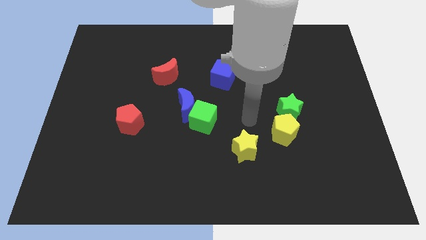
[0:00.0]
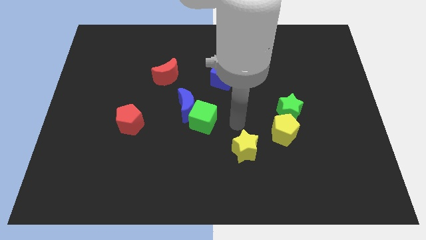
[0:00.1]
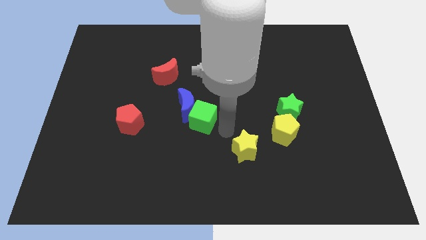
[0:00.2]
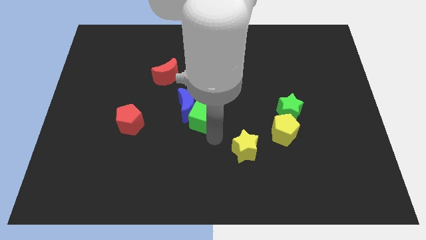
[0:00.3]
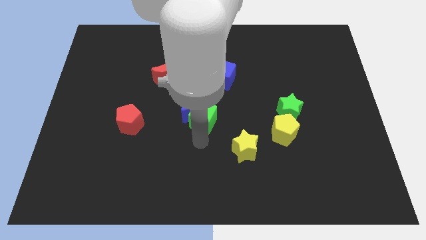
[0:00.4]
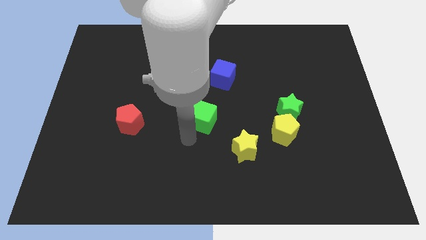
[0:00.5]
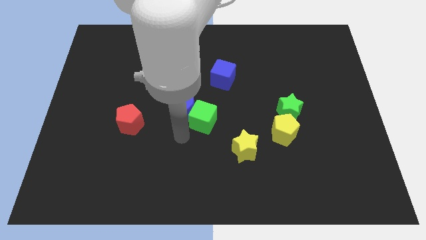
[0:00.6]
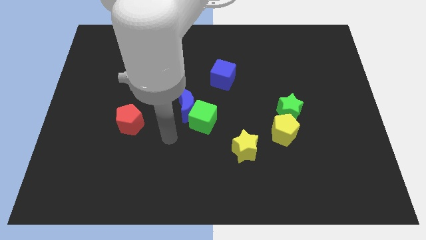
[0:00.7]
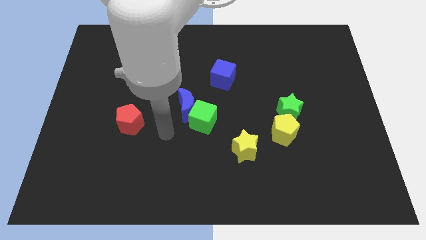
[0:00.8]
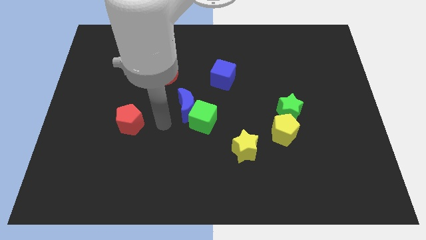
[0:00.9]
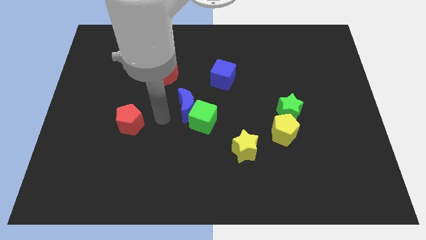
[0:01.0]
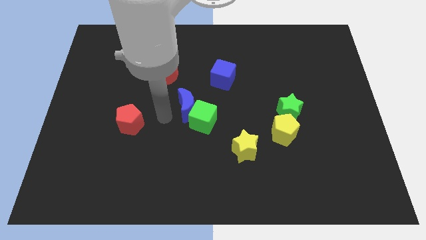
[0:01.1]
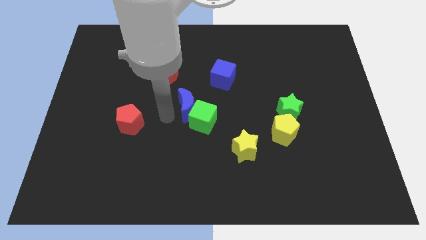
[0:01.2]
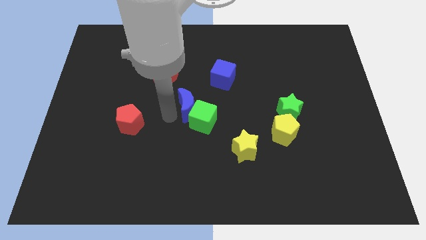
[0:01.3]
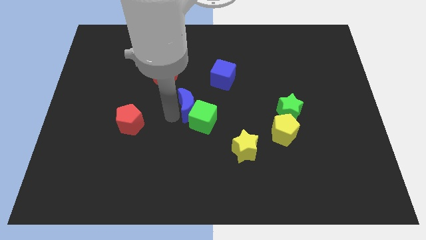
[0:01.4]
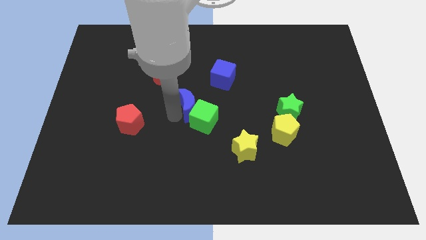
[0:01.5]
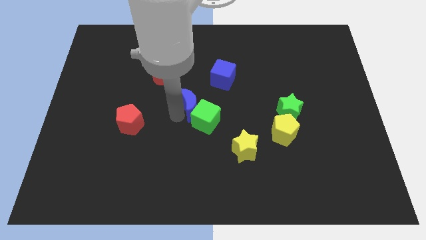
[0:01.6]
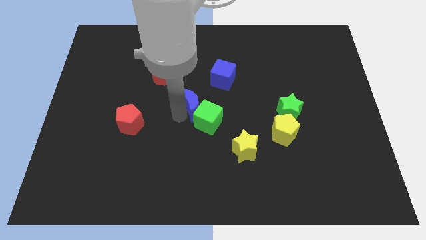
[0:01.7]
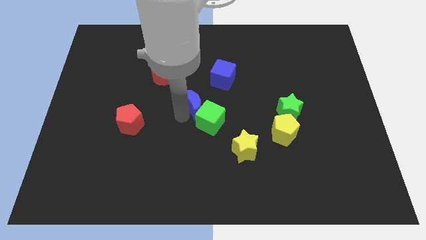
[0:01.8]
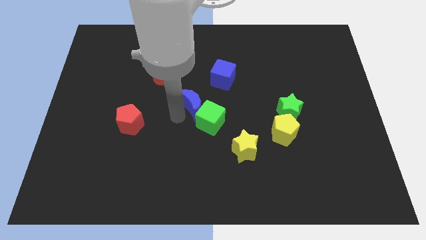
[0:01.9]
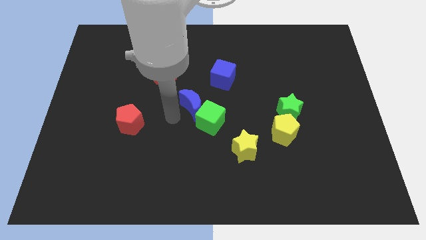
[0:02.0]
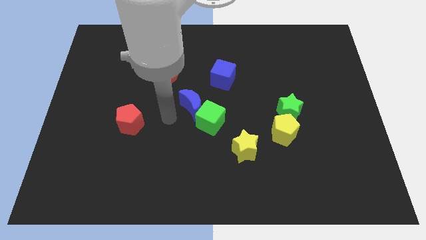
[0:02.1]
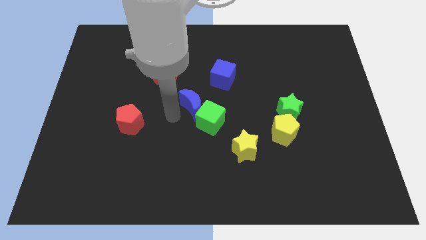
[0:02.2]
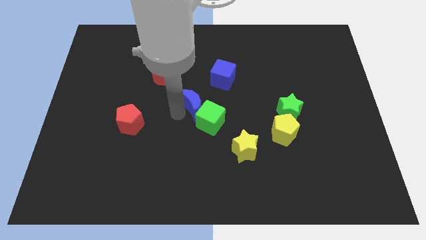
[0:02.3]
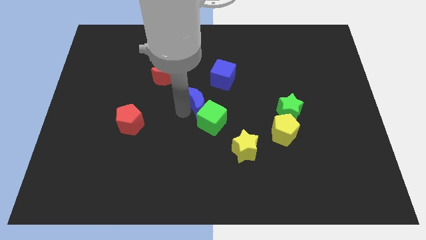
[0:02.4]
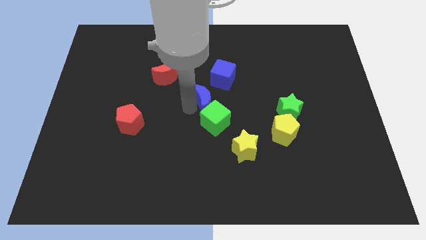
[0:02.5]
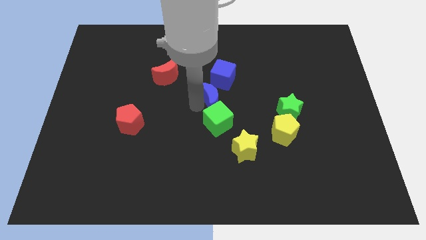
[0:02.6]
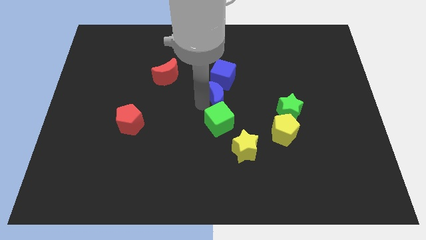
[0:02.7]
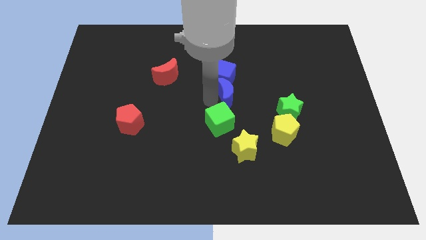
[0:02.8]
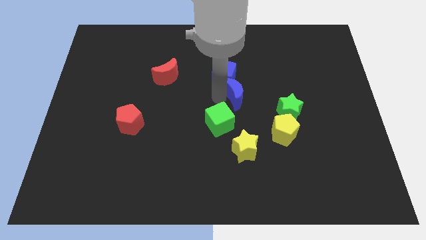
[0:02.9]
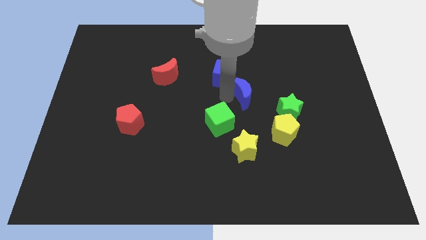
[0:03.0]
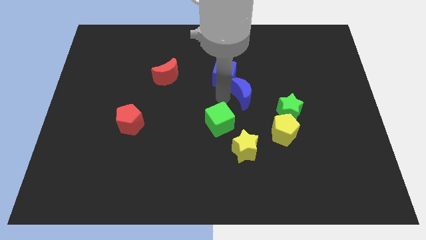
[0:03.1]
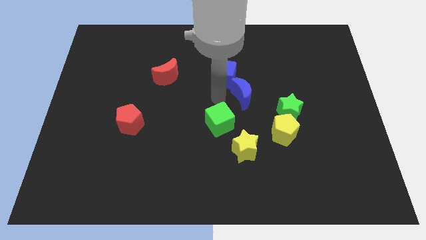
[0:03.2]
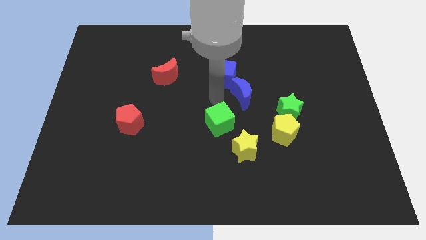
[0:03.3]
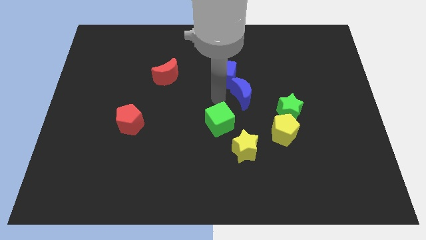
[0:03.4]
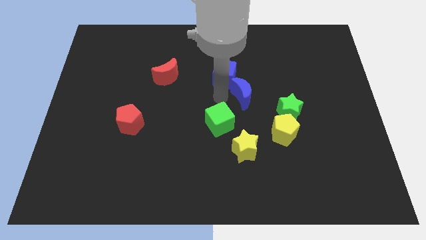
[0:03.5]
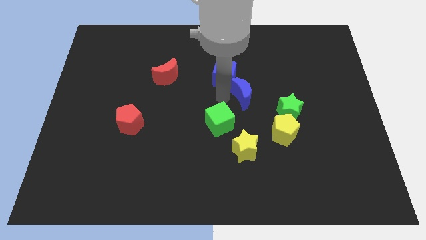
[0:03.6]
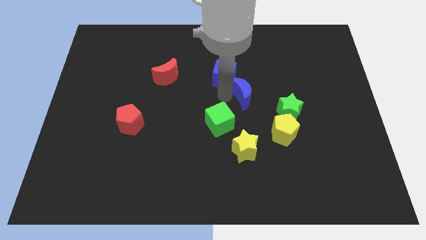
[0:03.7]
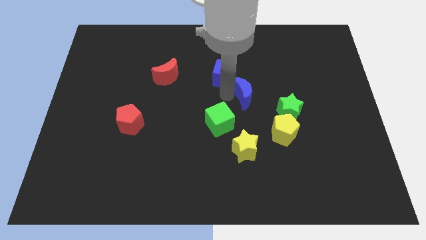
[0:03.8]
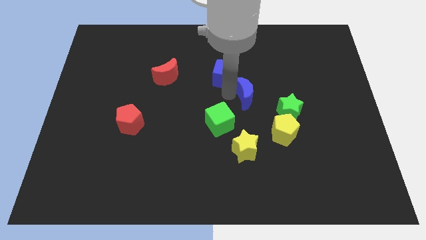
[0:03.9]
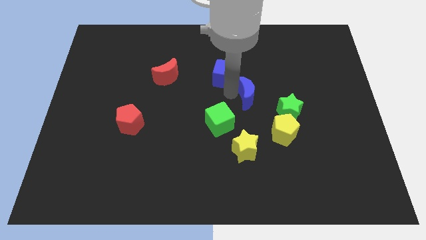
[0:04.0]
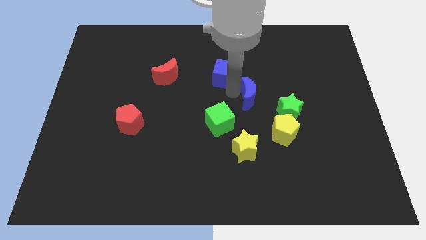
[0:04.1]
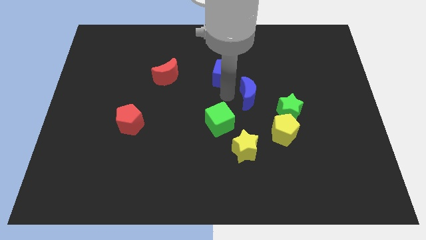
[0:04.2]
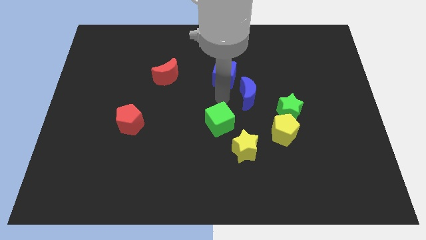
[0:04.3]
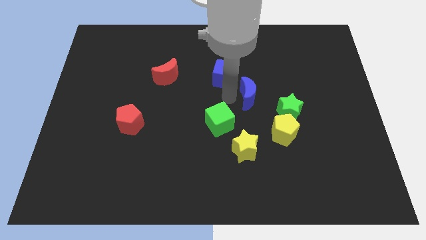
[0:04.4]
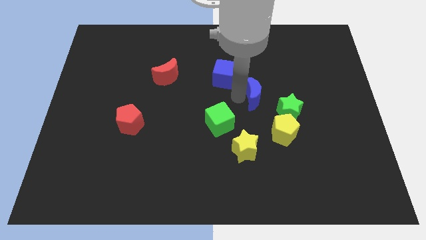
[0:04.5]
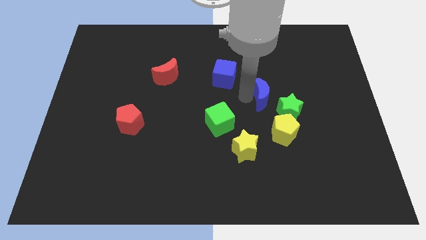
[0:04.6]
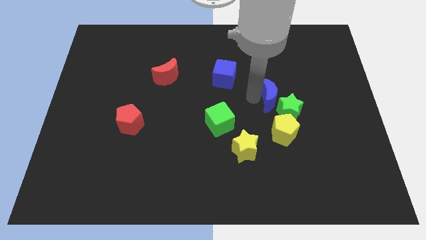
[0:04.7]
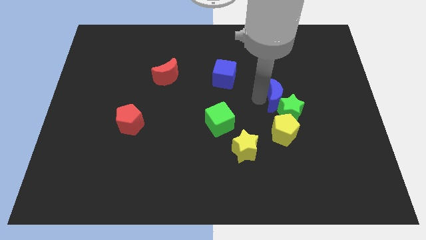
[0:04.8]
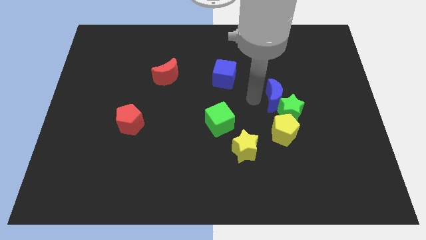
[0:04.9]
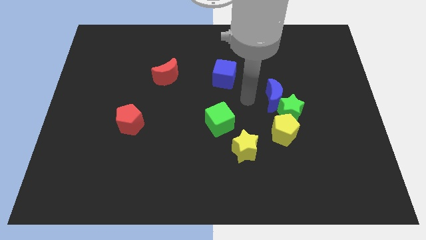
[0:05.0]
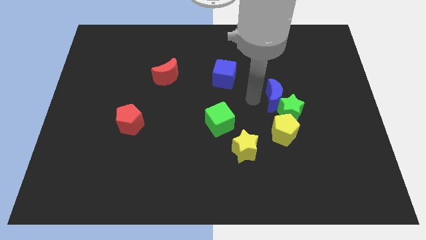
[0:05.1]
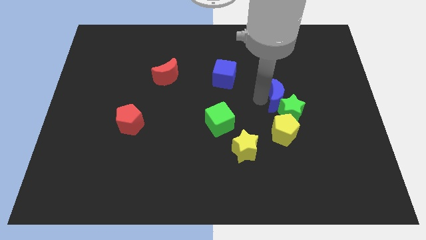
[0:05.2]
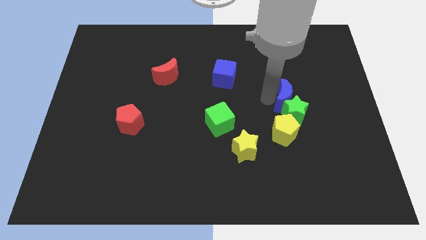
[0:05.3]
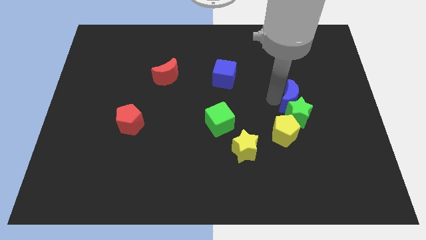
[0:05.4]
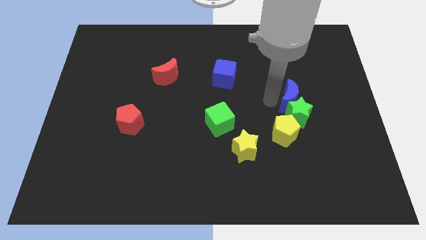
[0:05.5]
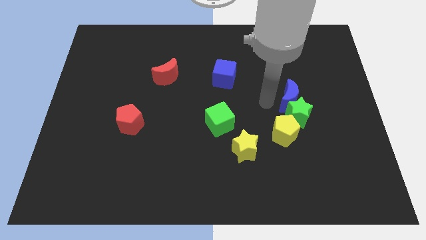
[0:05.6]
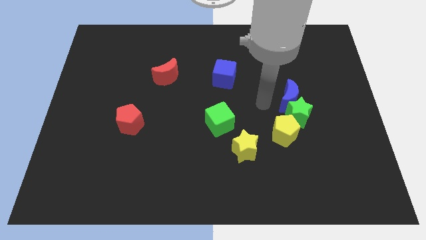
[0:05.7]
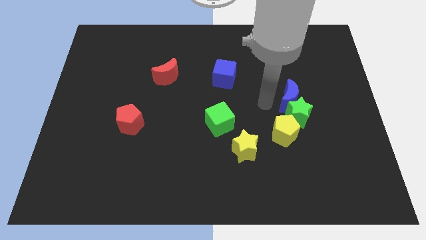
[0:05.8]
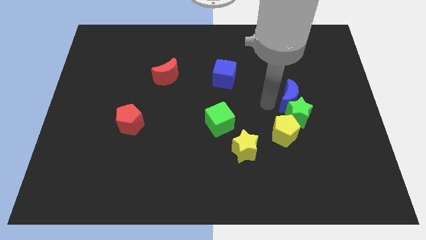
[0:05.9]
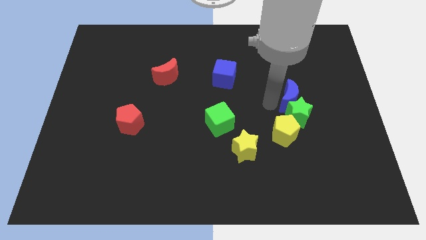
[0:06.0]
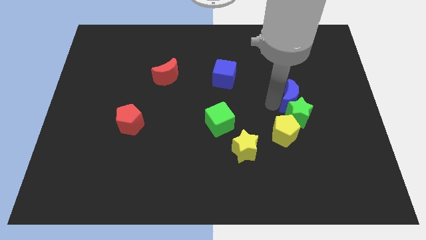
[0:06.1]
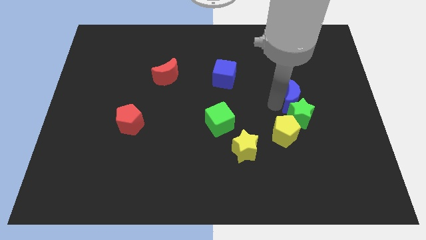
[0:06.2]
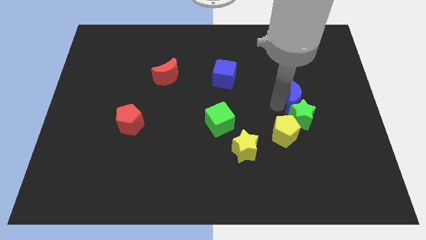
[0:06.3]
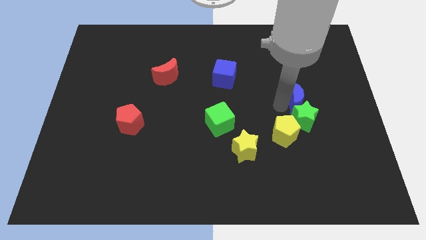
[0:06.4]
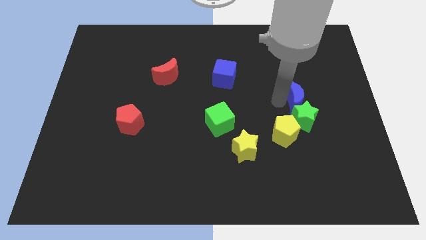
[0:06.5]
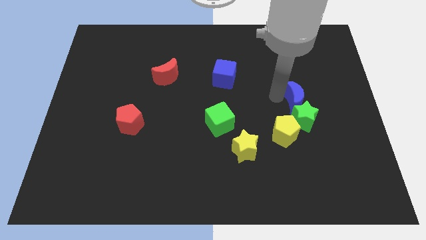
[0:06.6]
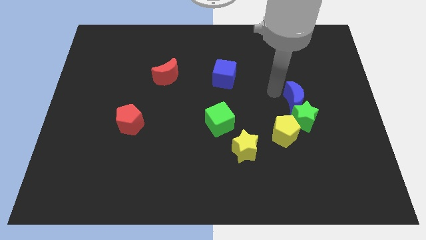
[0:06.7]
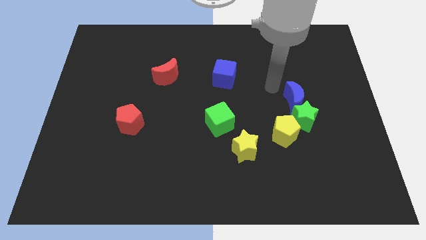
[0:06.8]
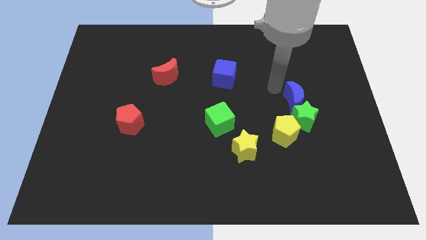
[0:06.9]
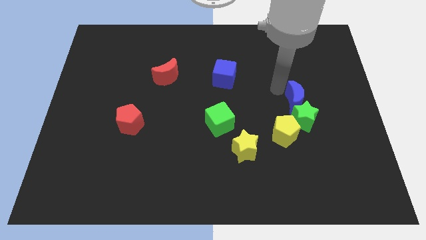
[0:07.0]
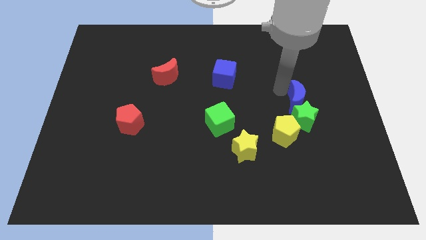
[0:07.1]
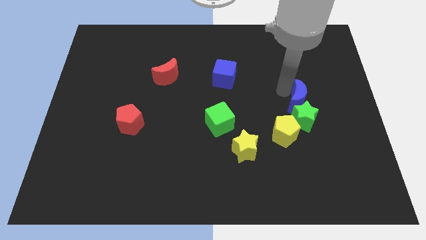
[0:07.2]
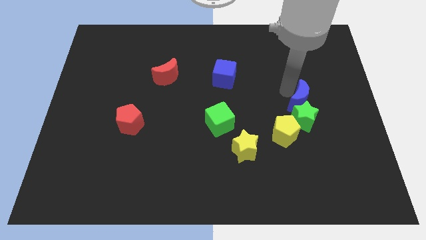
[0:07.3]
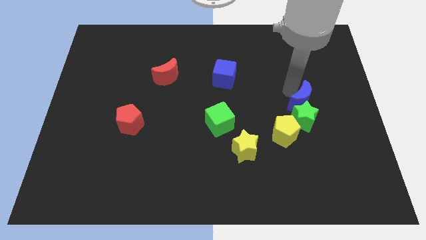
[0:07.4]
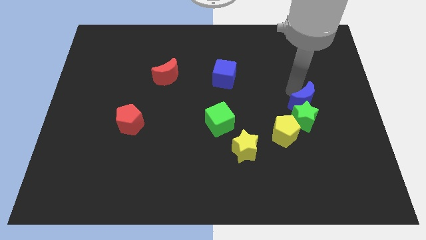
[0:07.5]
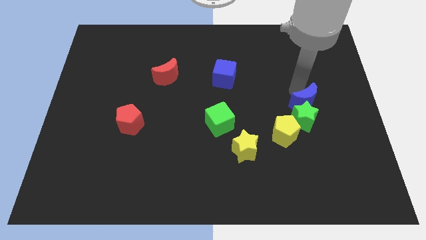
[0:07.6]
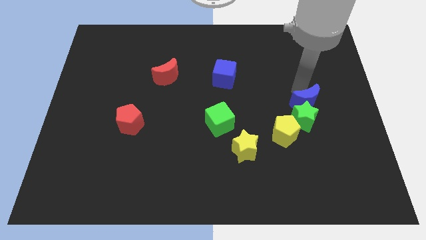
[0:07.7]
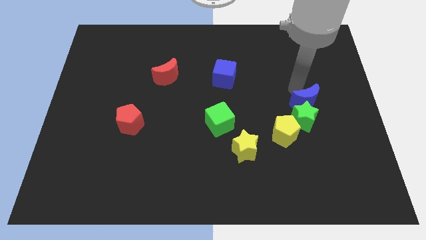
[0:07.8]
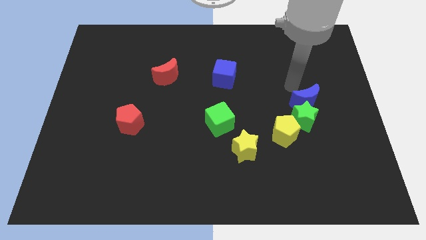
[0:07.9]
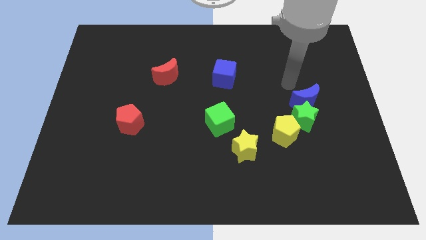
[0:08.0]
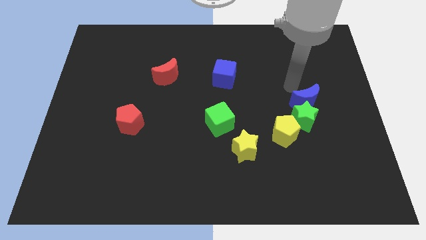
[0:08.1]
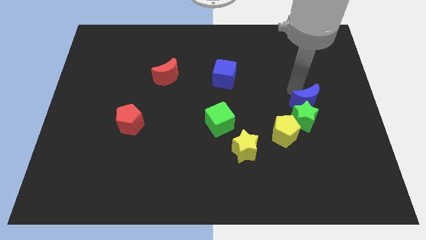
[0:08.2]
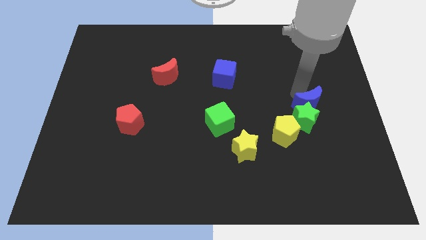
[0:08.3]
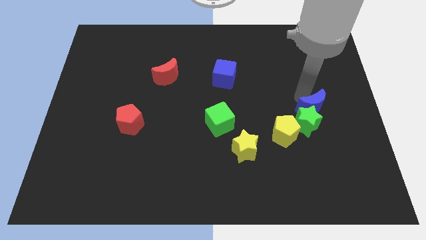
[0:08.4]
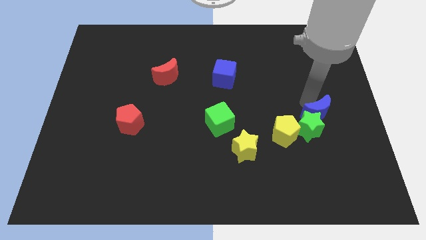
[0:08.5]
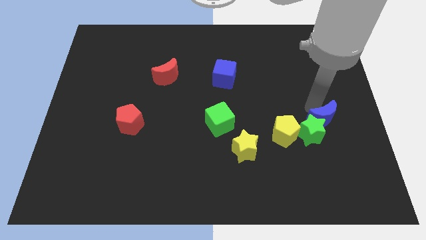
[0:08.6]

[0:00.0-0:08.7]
put the blue moon right of the yellow pentagon
